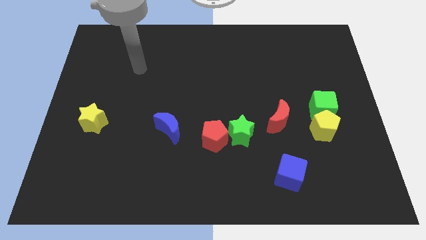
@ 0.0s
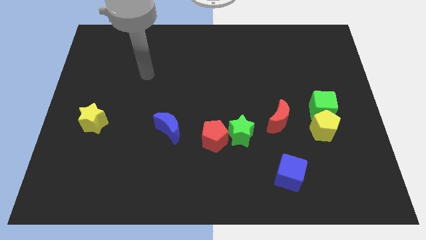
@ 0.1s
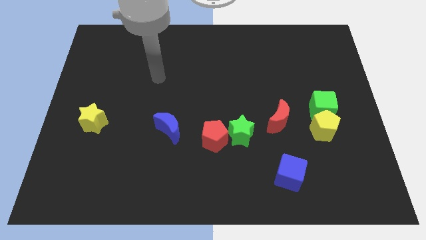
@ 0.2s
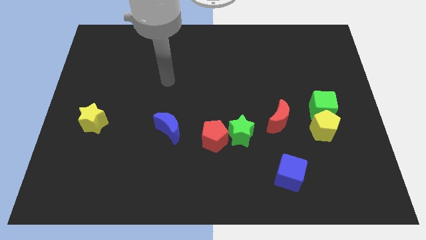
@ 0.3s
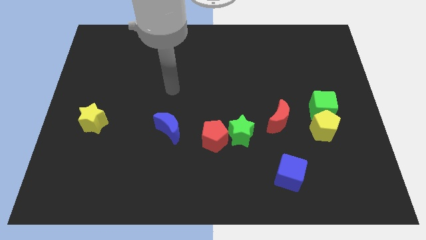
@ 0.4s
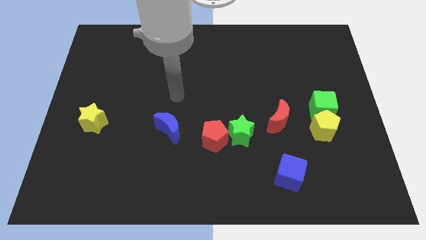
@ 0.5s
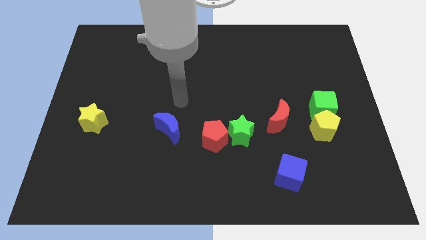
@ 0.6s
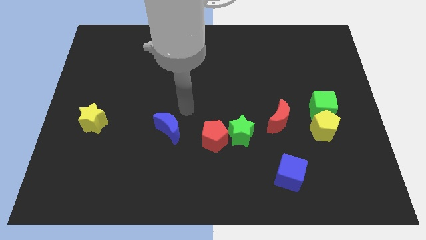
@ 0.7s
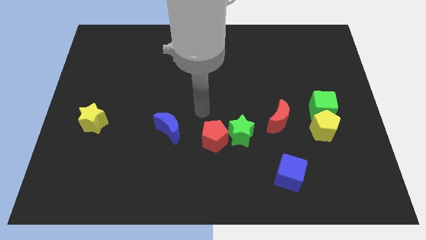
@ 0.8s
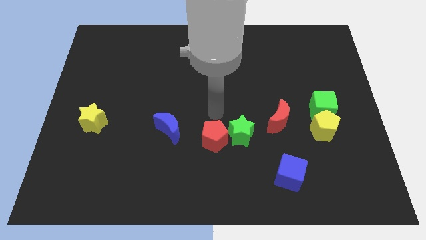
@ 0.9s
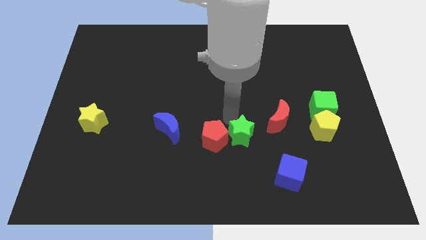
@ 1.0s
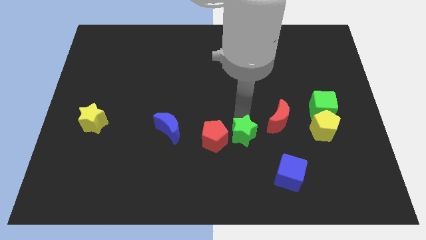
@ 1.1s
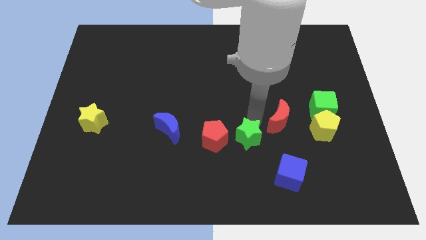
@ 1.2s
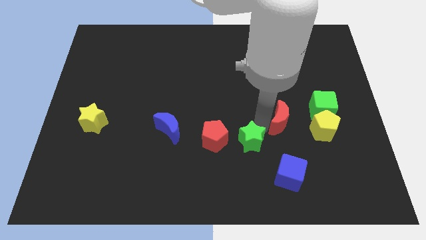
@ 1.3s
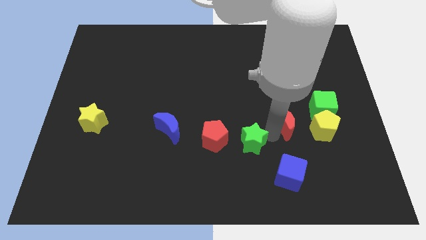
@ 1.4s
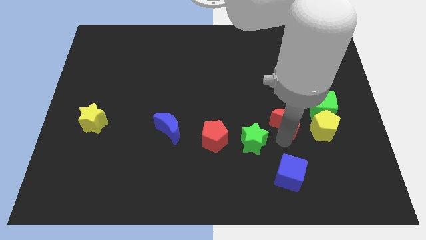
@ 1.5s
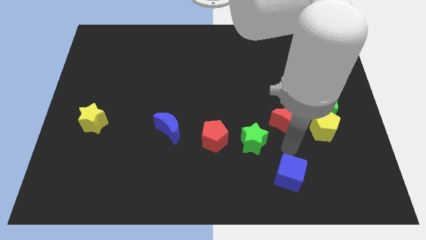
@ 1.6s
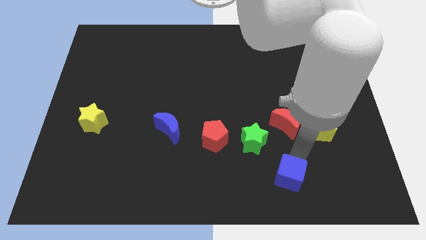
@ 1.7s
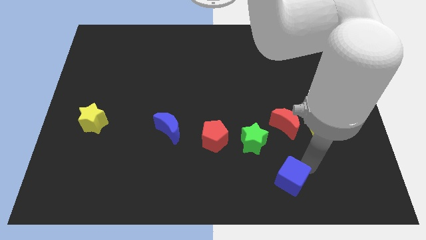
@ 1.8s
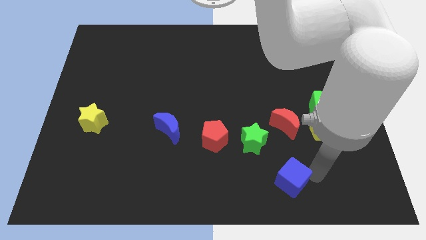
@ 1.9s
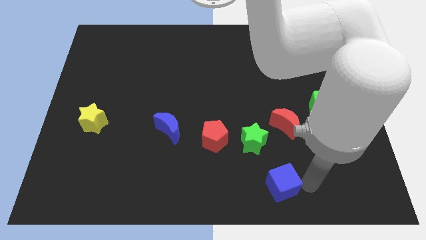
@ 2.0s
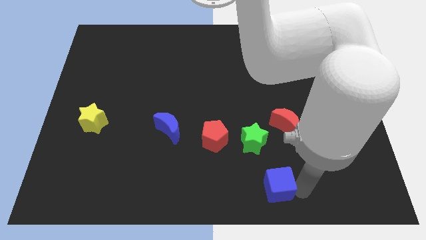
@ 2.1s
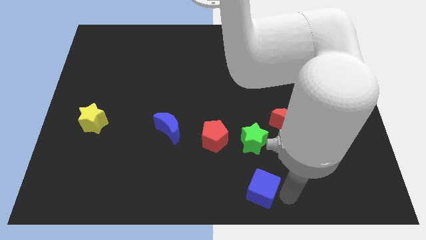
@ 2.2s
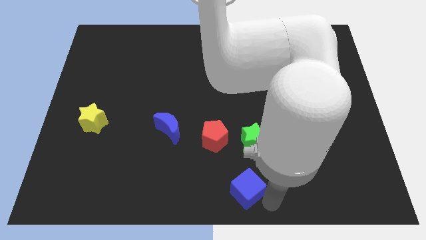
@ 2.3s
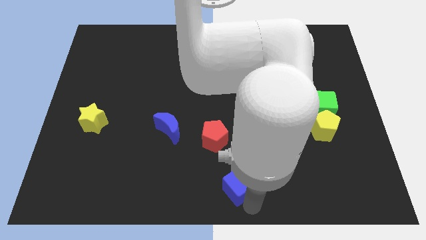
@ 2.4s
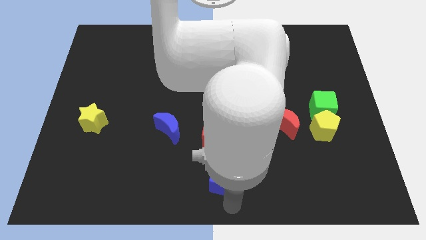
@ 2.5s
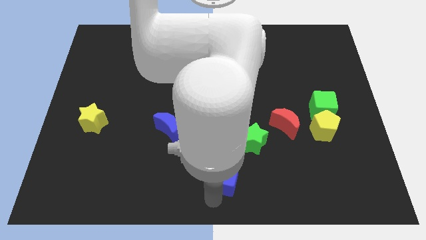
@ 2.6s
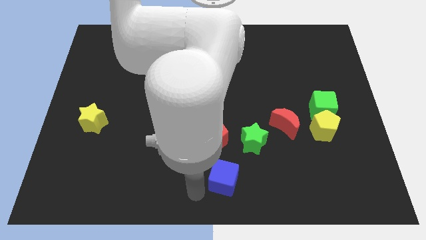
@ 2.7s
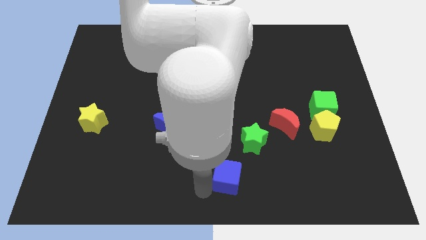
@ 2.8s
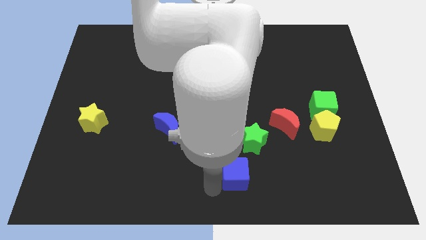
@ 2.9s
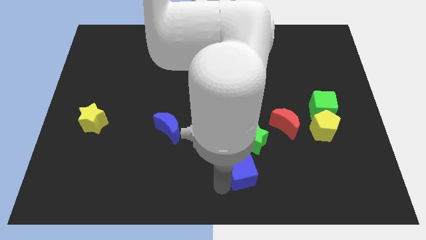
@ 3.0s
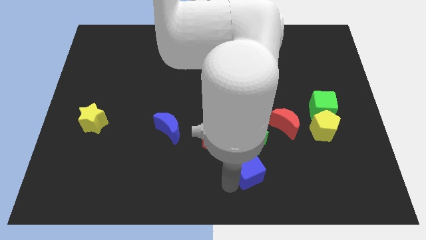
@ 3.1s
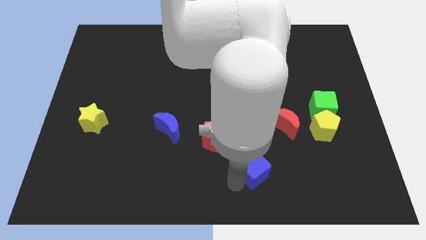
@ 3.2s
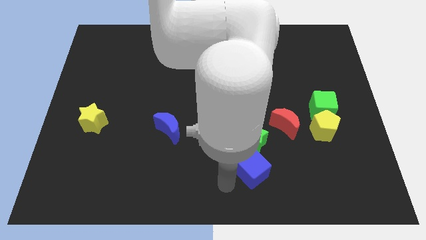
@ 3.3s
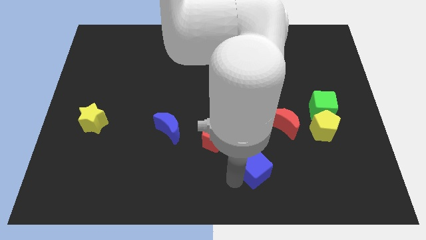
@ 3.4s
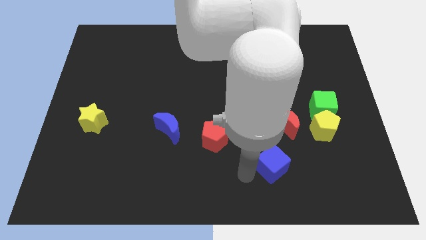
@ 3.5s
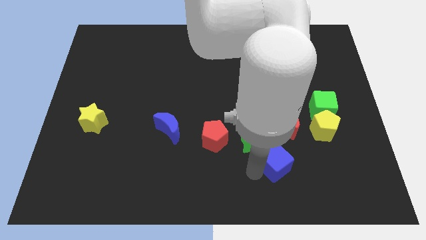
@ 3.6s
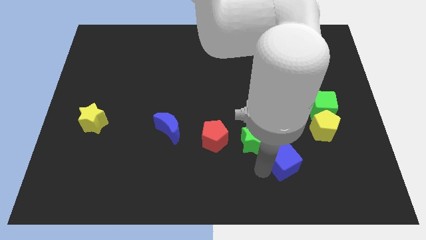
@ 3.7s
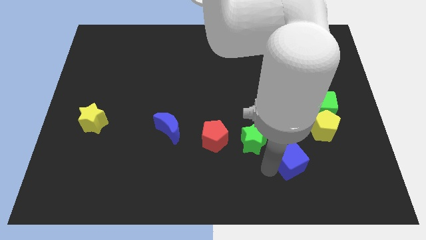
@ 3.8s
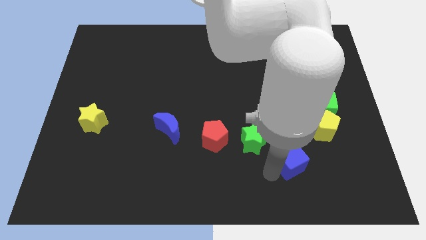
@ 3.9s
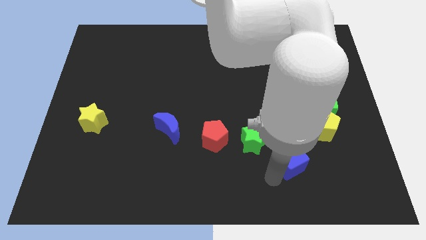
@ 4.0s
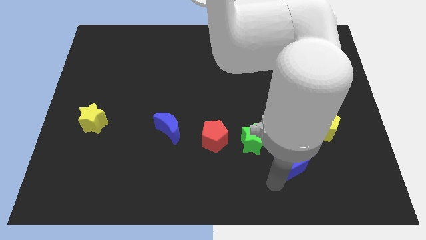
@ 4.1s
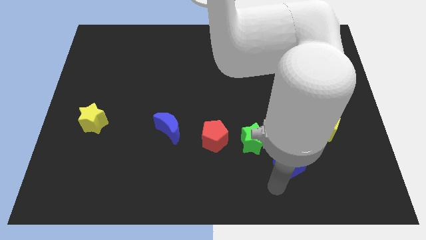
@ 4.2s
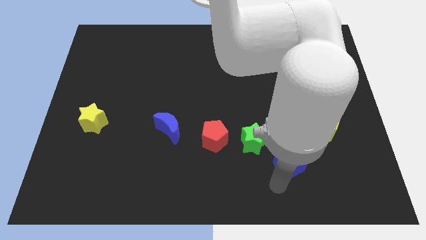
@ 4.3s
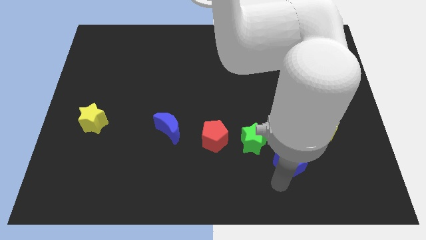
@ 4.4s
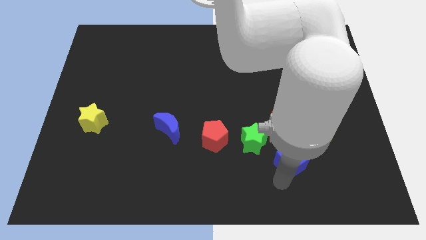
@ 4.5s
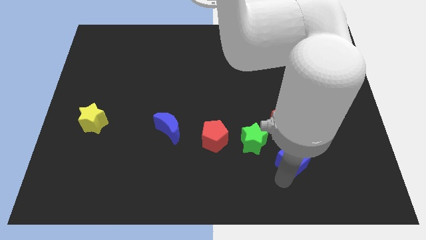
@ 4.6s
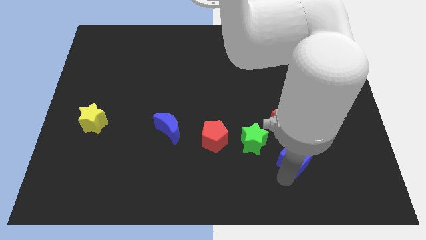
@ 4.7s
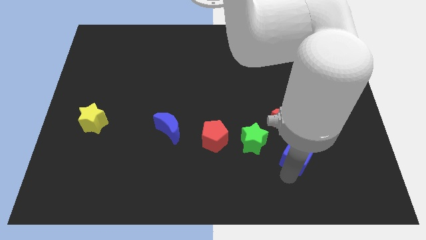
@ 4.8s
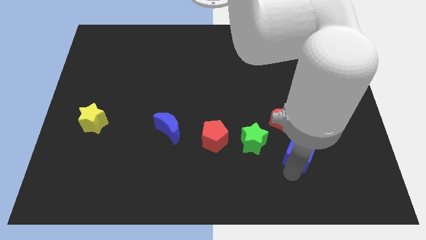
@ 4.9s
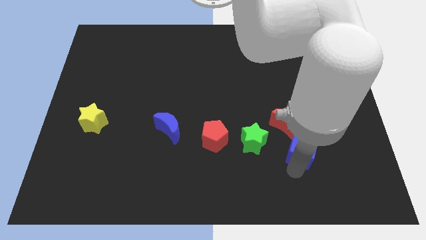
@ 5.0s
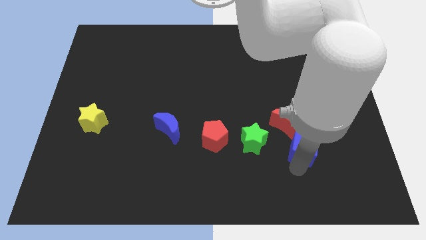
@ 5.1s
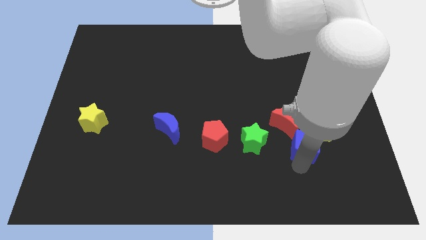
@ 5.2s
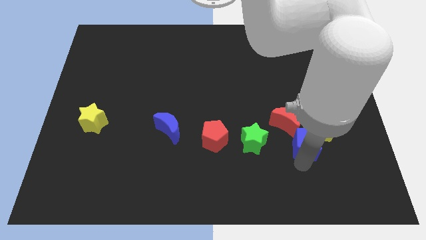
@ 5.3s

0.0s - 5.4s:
push the blue cube diagonally down and to the left of the green cube

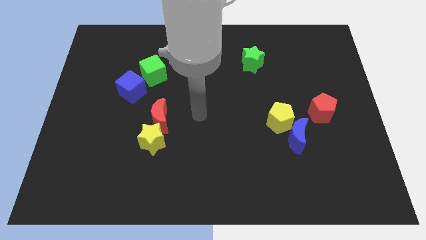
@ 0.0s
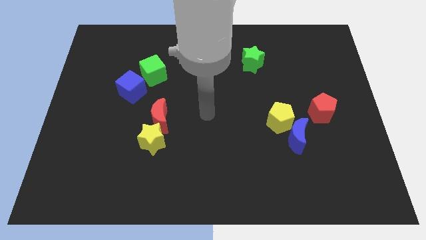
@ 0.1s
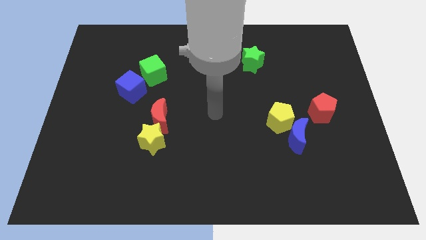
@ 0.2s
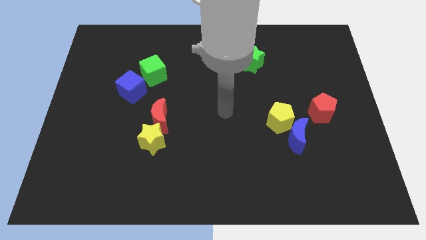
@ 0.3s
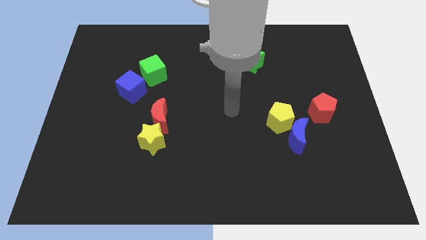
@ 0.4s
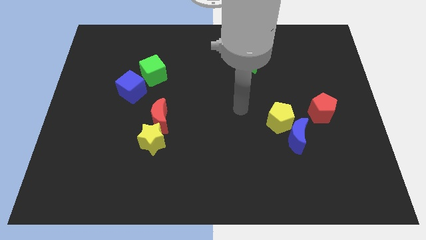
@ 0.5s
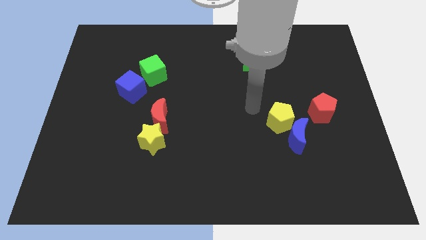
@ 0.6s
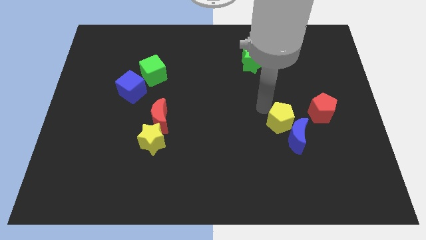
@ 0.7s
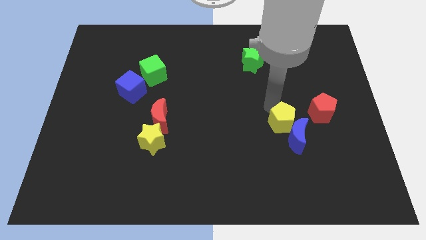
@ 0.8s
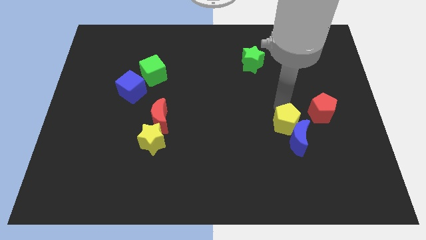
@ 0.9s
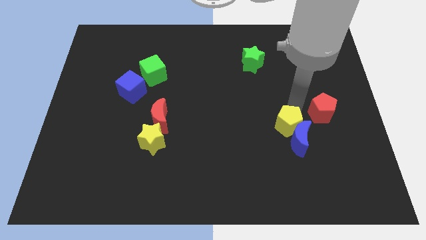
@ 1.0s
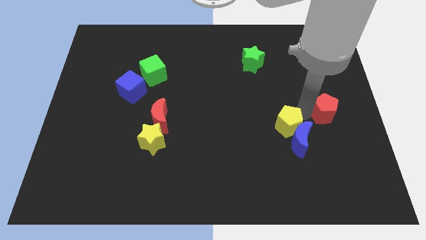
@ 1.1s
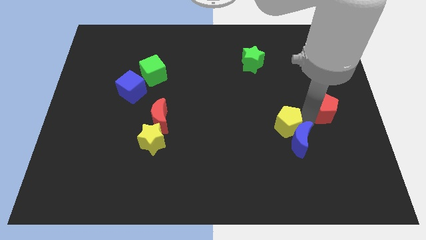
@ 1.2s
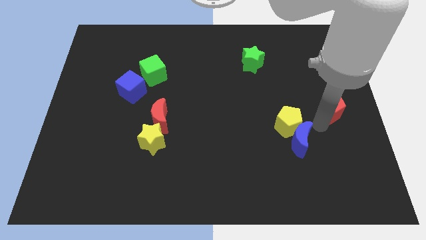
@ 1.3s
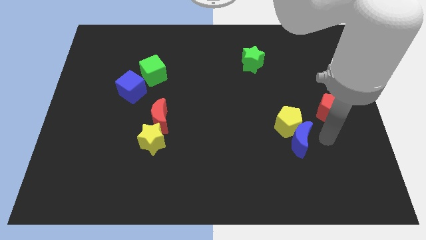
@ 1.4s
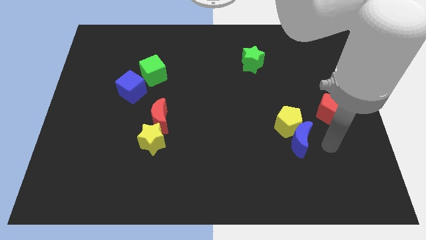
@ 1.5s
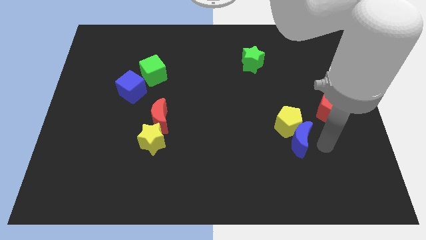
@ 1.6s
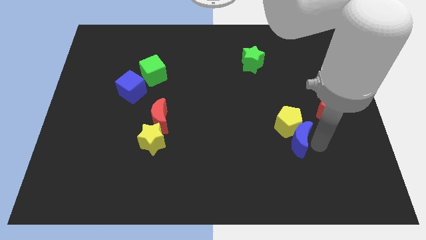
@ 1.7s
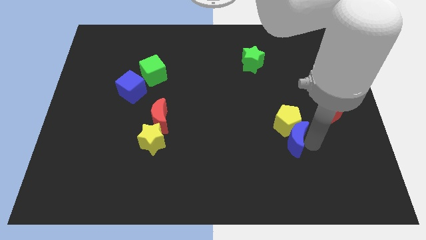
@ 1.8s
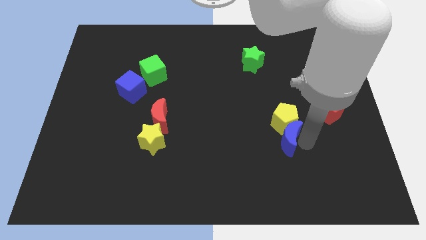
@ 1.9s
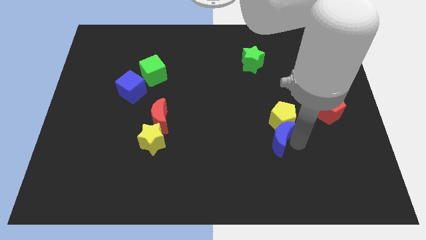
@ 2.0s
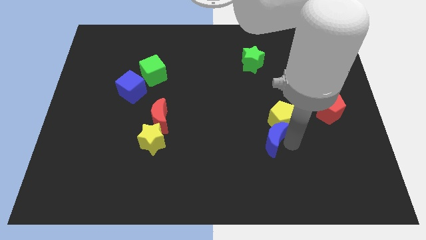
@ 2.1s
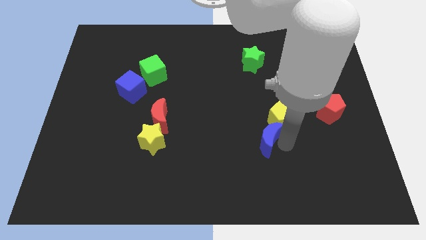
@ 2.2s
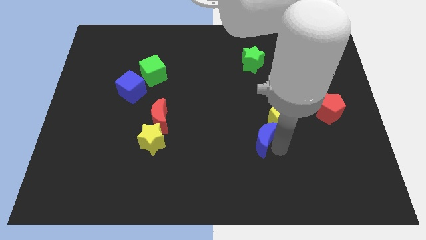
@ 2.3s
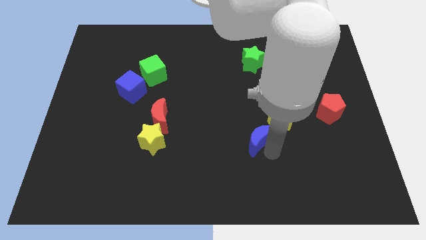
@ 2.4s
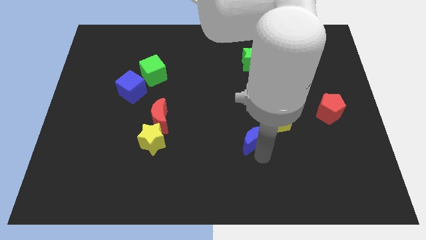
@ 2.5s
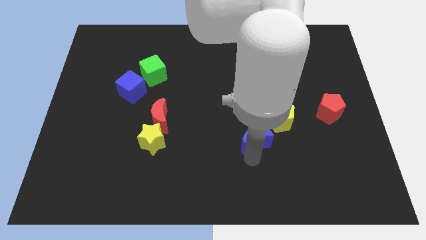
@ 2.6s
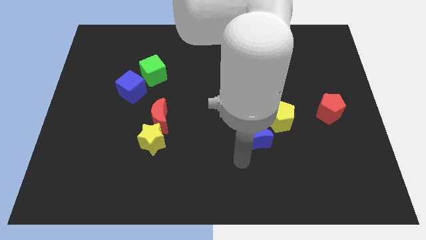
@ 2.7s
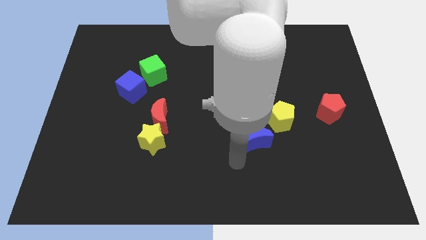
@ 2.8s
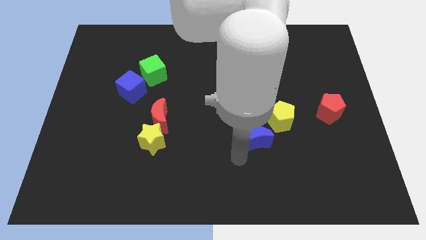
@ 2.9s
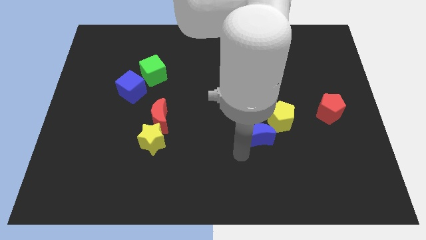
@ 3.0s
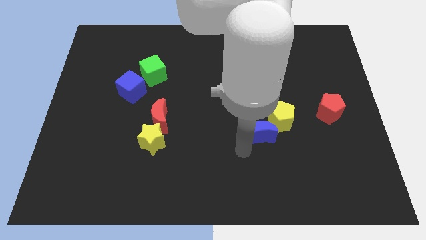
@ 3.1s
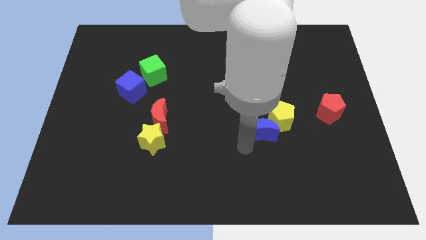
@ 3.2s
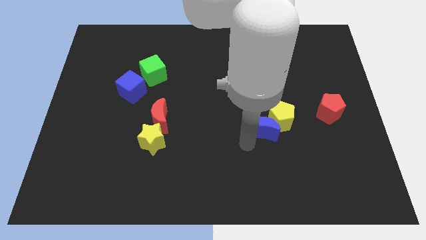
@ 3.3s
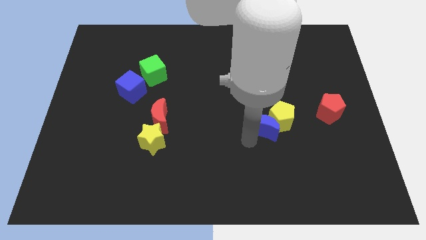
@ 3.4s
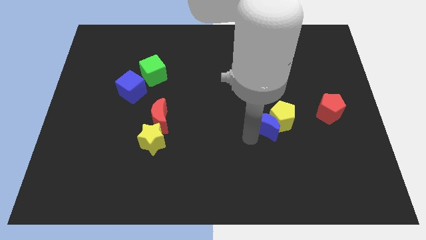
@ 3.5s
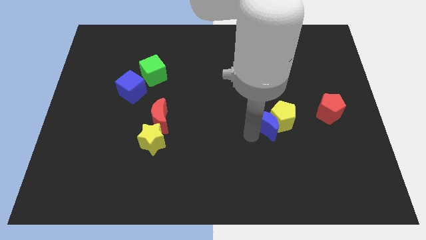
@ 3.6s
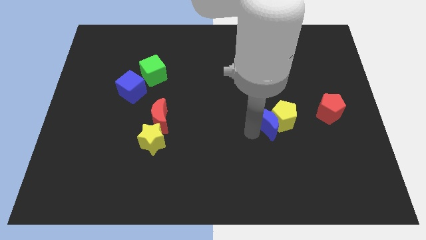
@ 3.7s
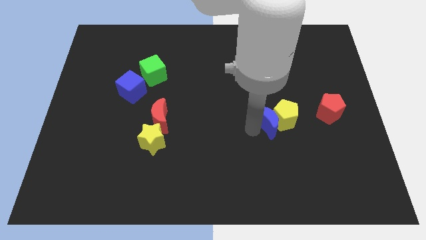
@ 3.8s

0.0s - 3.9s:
put the blue moon to the left side of the red pentagon
